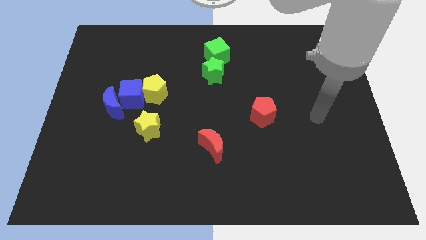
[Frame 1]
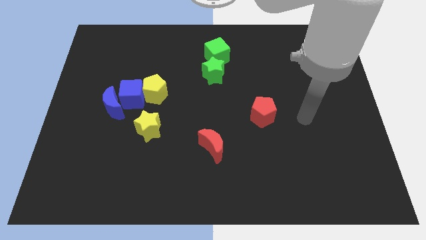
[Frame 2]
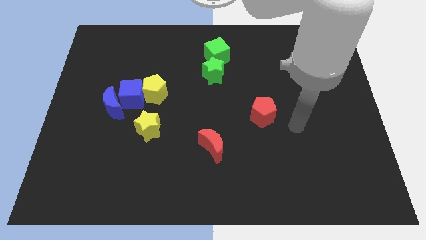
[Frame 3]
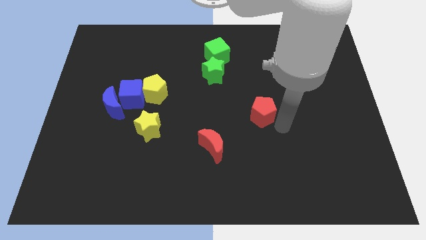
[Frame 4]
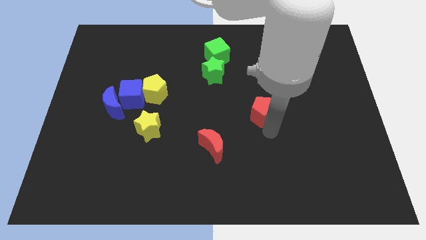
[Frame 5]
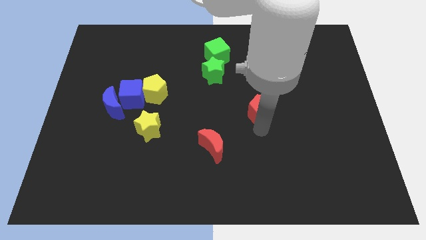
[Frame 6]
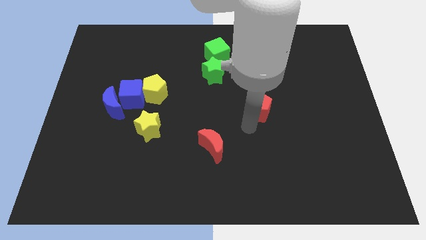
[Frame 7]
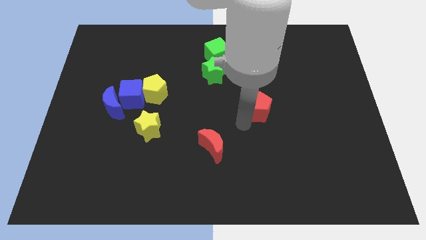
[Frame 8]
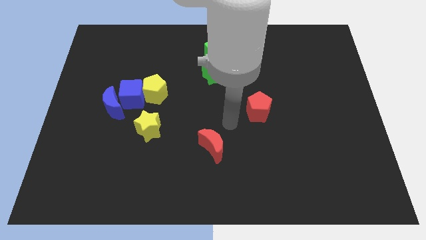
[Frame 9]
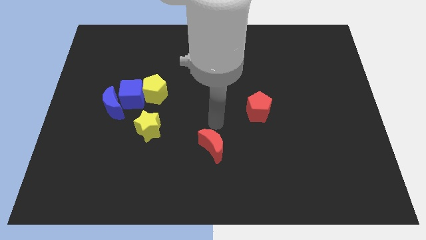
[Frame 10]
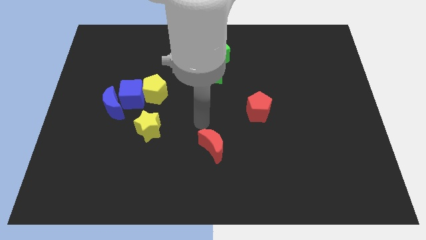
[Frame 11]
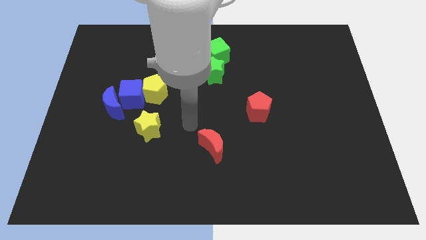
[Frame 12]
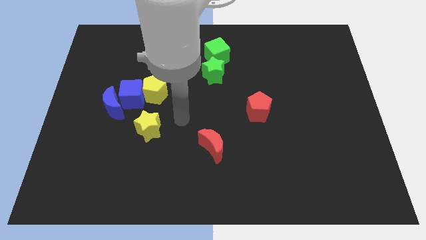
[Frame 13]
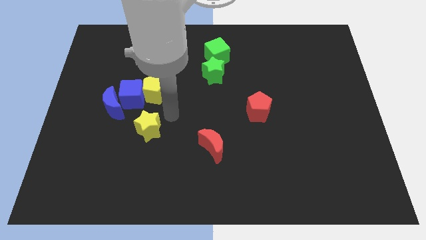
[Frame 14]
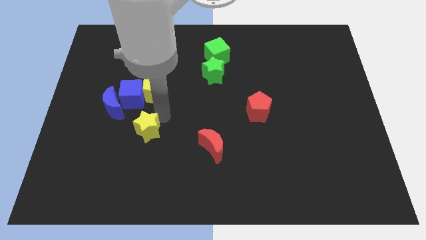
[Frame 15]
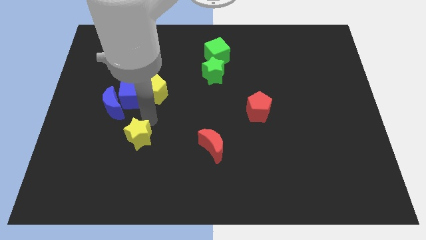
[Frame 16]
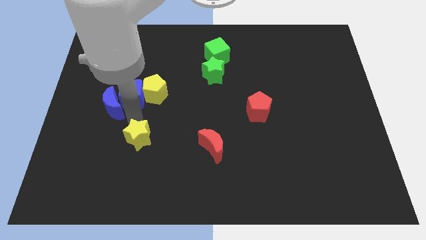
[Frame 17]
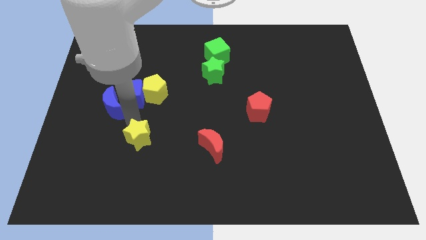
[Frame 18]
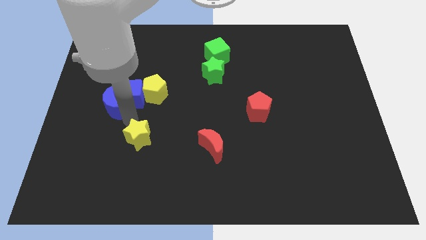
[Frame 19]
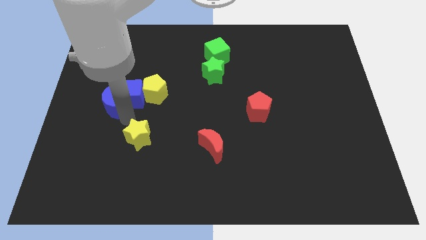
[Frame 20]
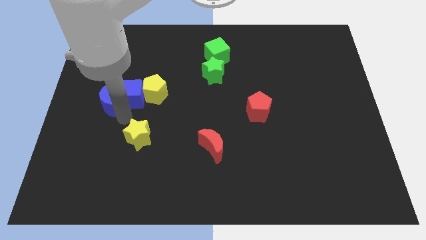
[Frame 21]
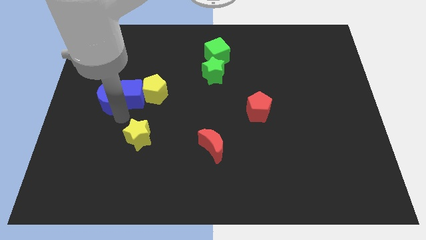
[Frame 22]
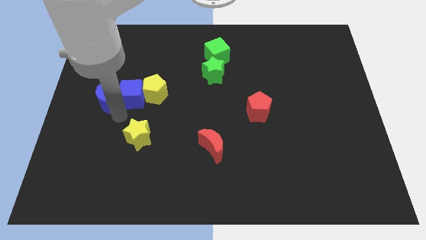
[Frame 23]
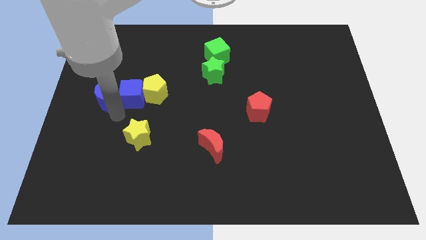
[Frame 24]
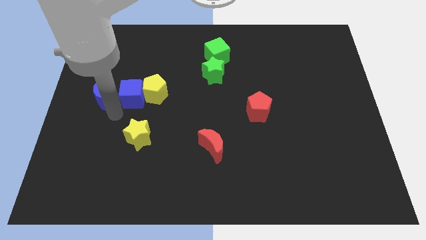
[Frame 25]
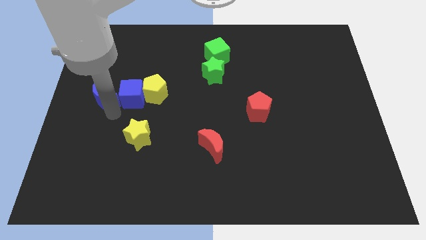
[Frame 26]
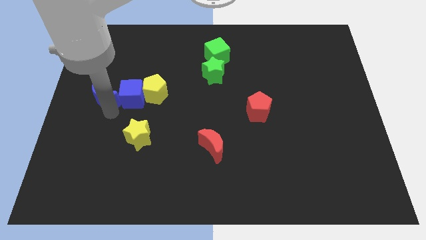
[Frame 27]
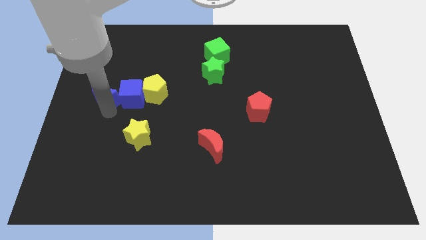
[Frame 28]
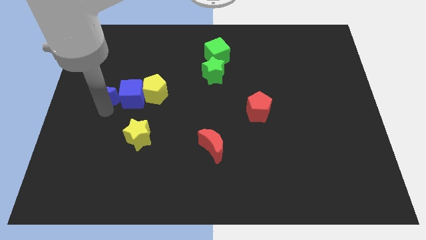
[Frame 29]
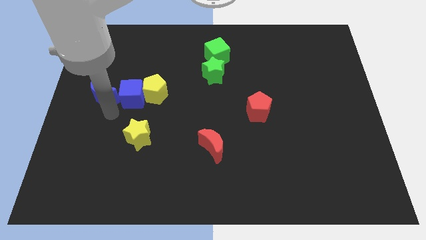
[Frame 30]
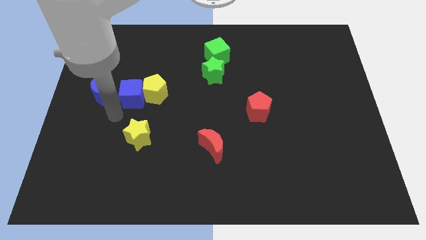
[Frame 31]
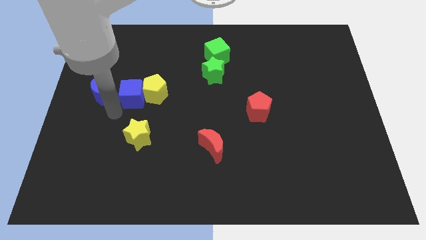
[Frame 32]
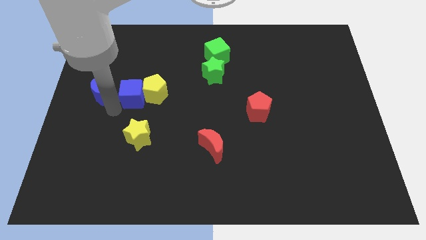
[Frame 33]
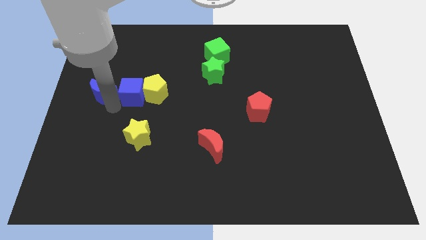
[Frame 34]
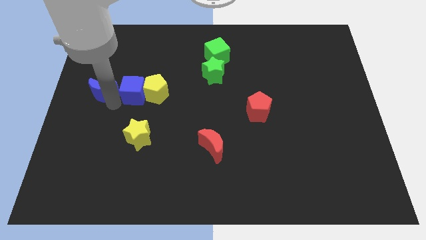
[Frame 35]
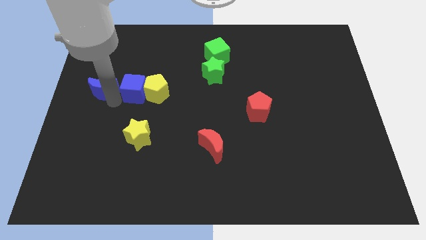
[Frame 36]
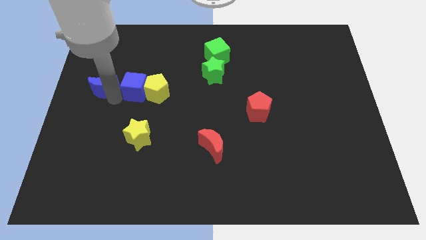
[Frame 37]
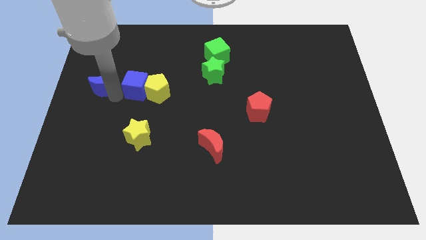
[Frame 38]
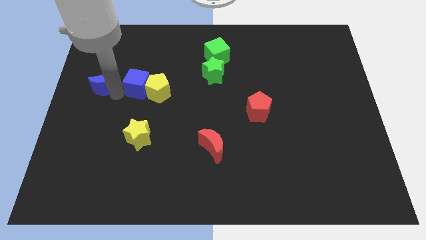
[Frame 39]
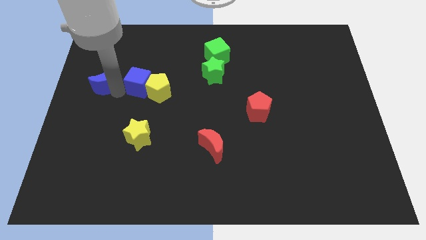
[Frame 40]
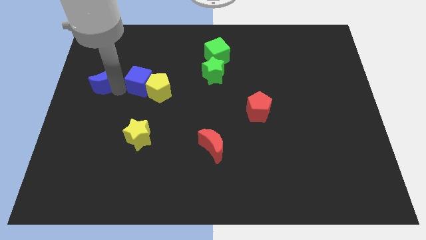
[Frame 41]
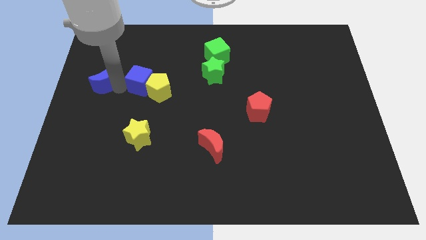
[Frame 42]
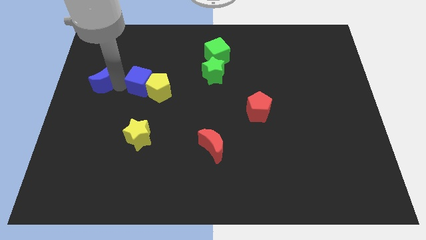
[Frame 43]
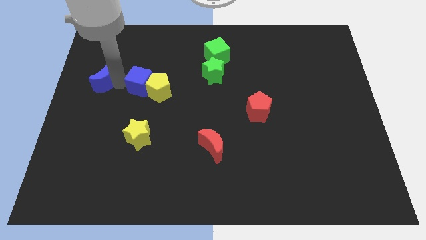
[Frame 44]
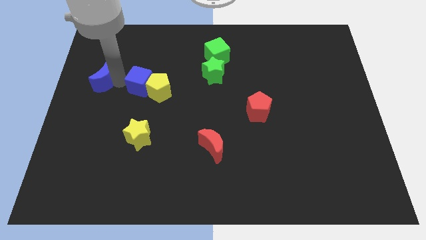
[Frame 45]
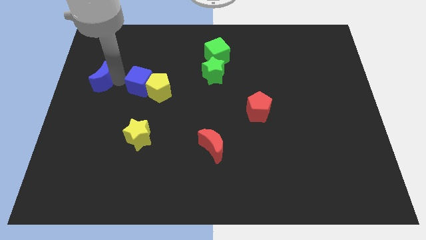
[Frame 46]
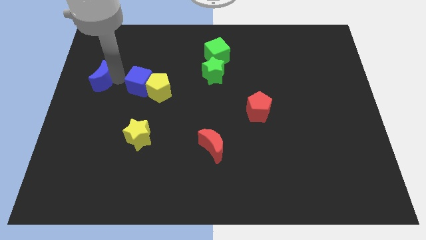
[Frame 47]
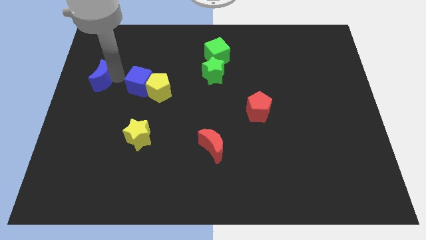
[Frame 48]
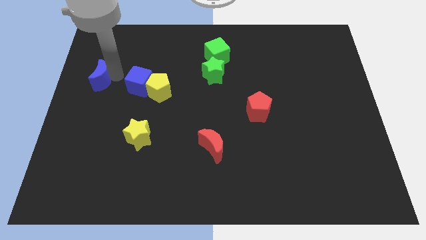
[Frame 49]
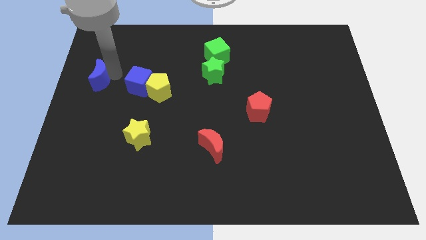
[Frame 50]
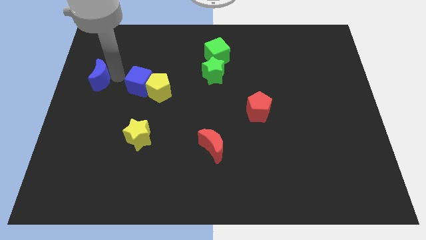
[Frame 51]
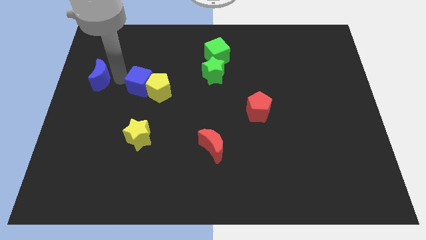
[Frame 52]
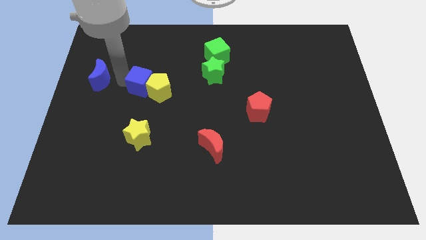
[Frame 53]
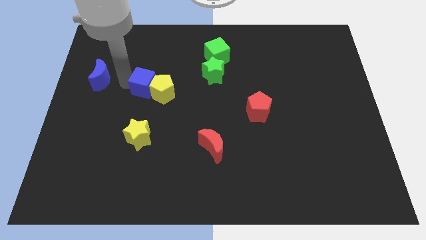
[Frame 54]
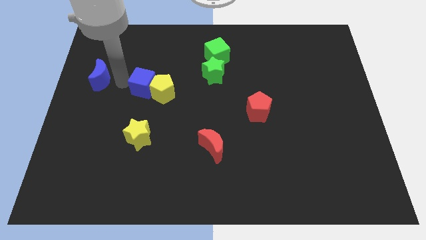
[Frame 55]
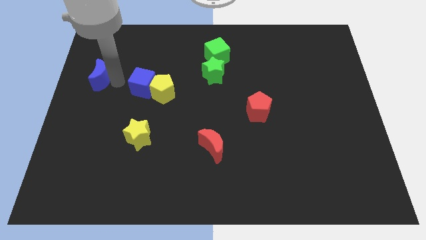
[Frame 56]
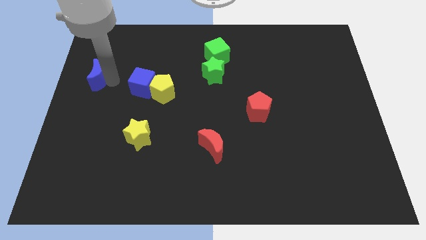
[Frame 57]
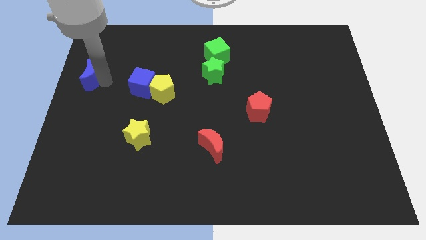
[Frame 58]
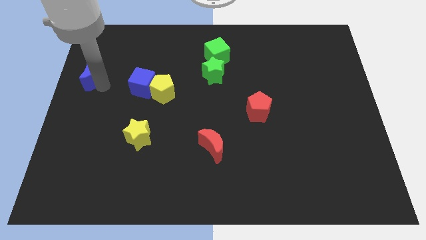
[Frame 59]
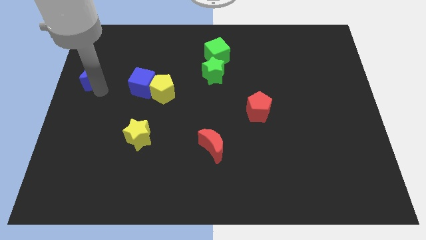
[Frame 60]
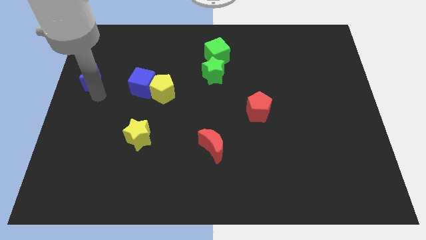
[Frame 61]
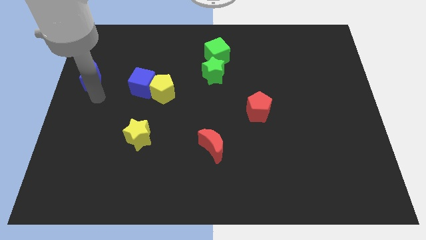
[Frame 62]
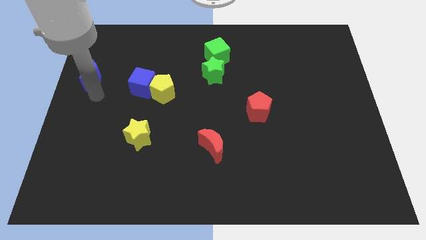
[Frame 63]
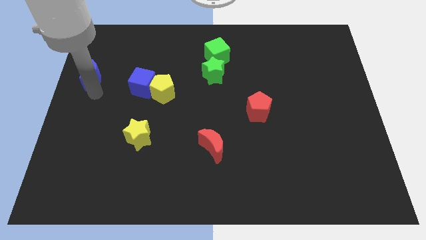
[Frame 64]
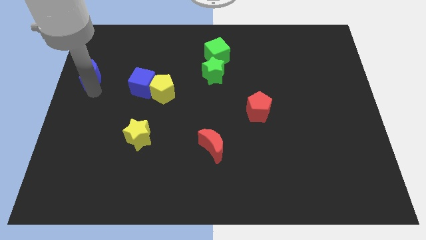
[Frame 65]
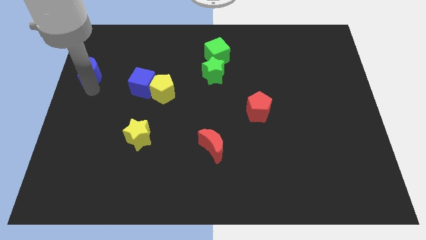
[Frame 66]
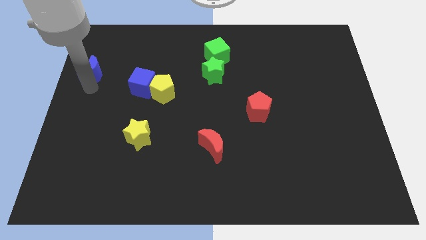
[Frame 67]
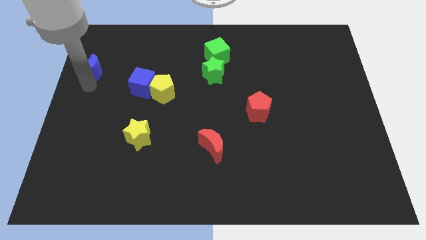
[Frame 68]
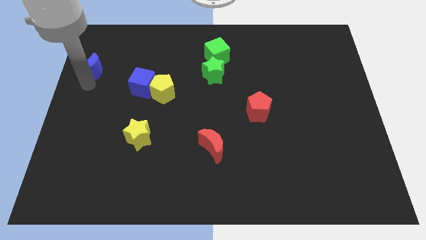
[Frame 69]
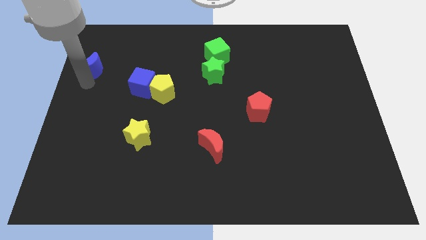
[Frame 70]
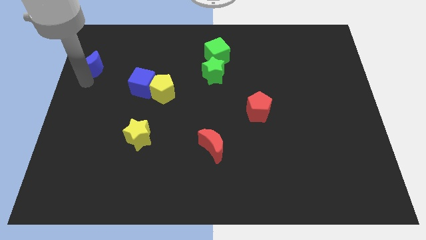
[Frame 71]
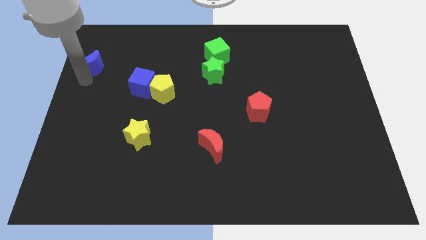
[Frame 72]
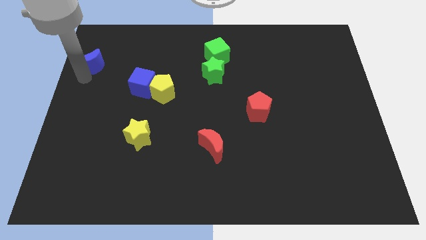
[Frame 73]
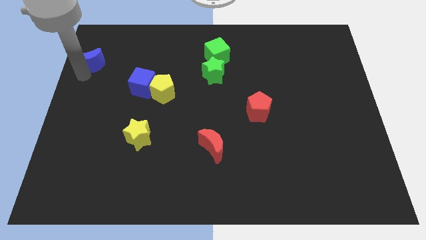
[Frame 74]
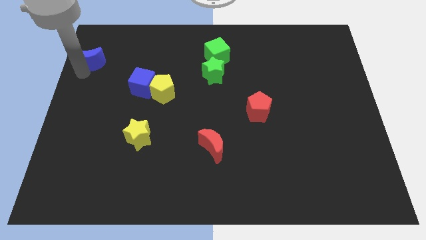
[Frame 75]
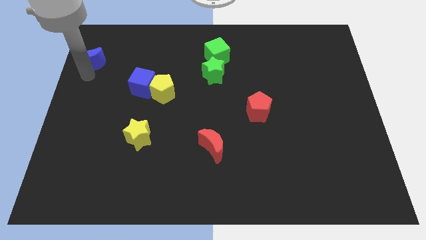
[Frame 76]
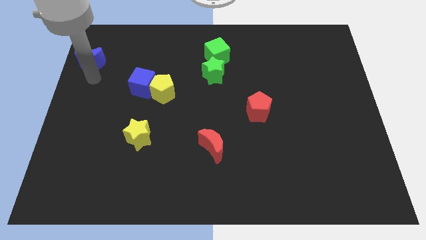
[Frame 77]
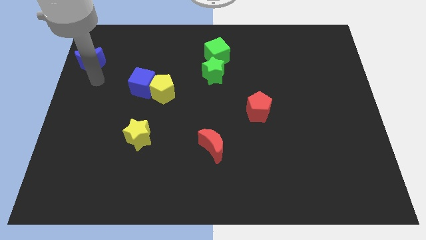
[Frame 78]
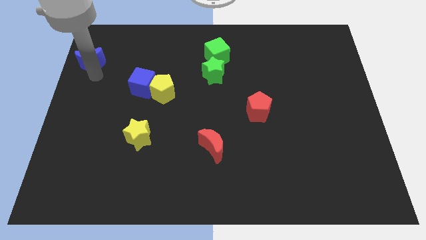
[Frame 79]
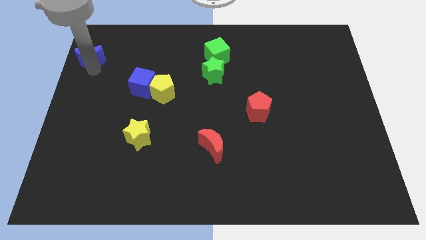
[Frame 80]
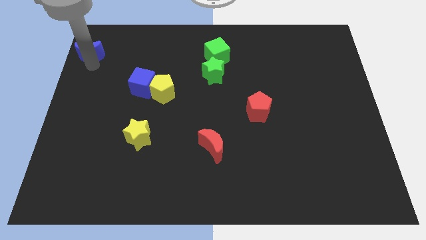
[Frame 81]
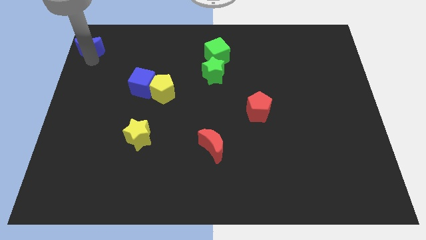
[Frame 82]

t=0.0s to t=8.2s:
move the blue moon to the top left
